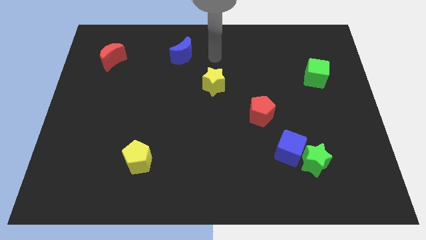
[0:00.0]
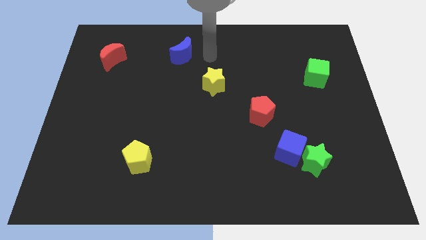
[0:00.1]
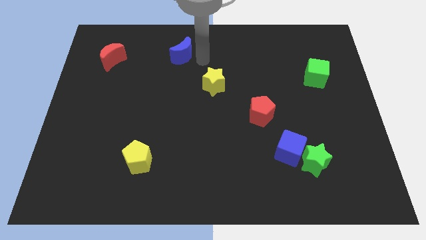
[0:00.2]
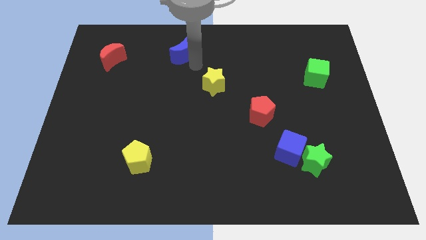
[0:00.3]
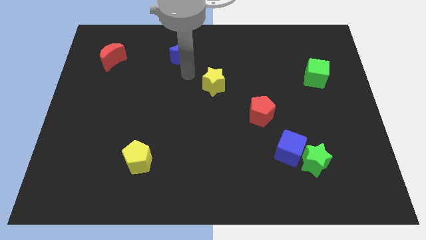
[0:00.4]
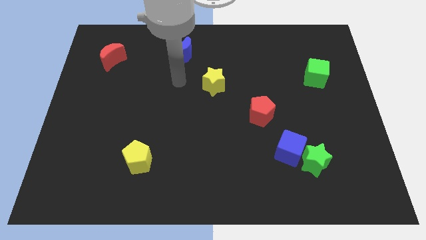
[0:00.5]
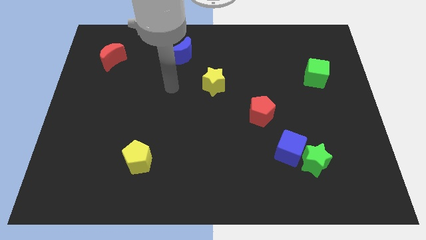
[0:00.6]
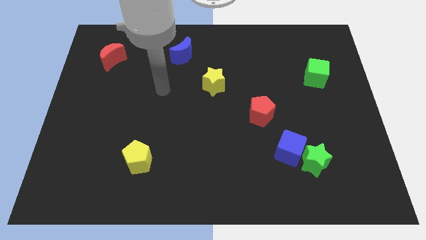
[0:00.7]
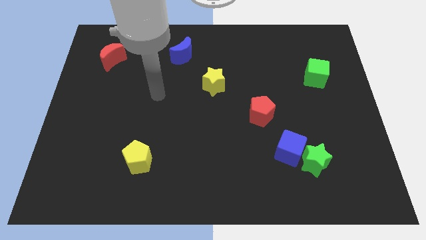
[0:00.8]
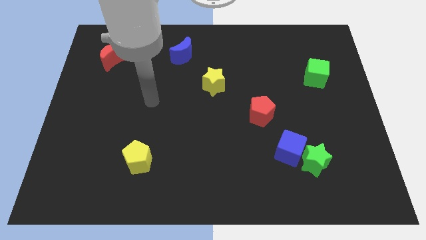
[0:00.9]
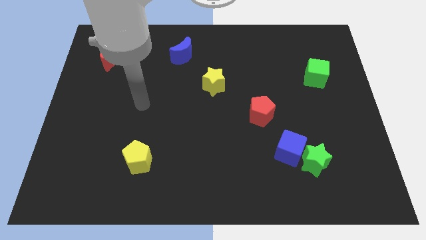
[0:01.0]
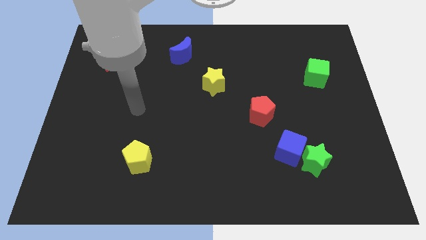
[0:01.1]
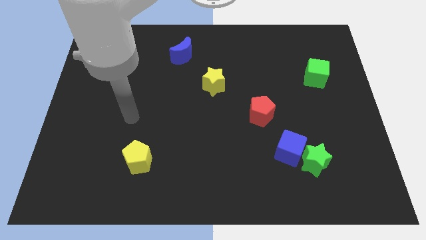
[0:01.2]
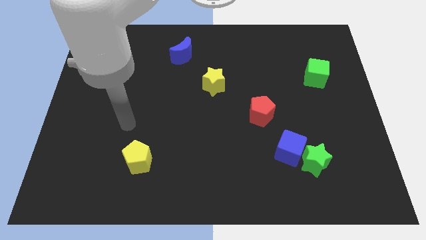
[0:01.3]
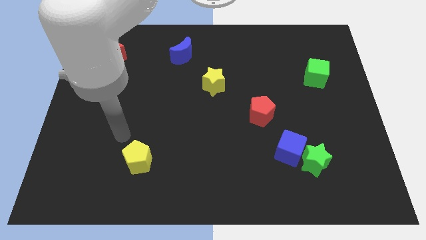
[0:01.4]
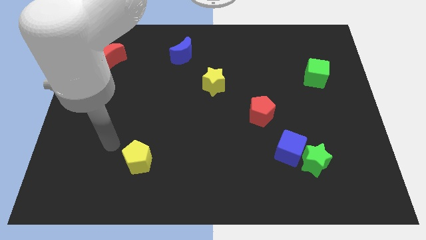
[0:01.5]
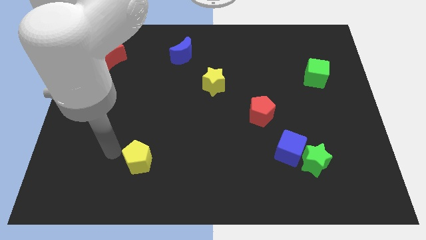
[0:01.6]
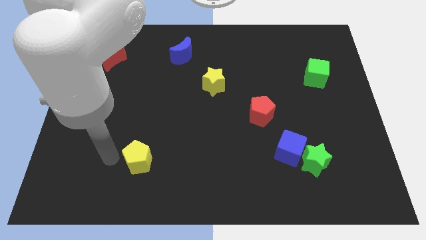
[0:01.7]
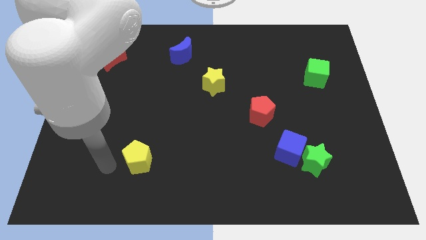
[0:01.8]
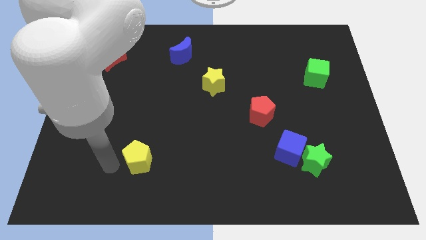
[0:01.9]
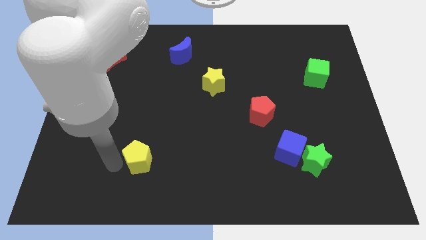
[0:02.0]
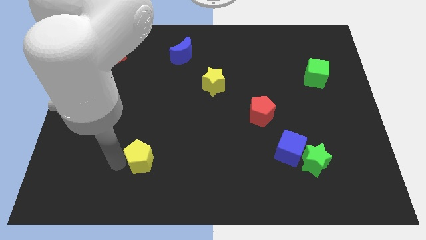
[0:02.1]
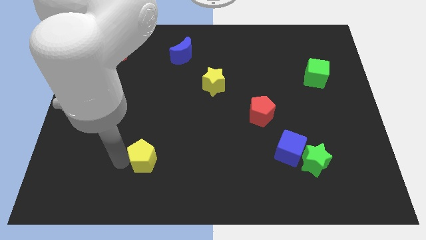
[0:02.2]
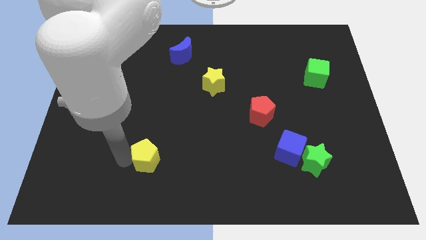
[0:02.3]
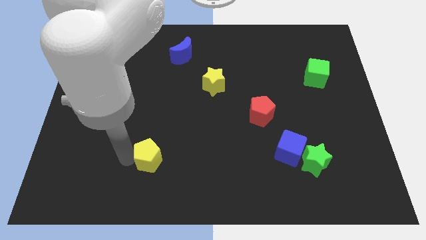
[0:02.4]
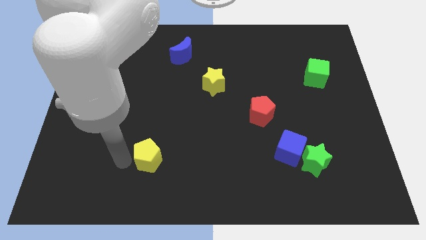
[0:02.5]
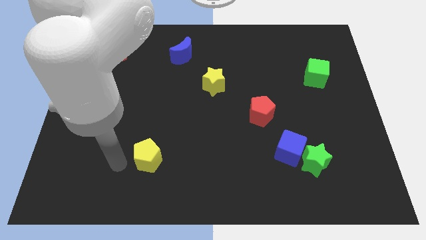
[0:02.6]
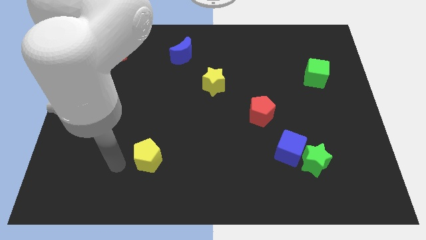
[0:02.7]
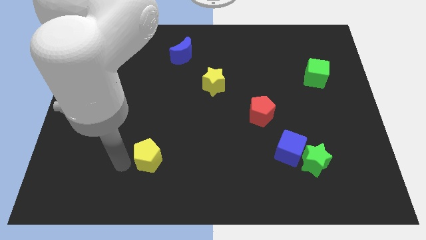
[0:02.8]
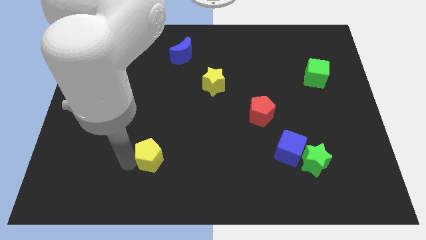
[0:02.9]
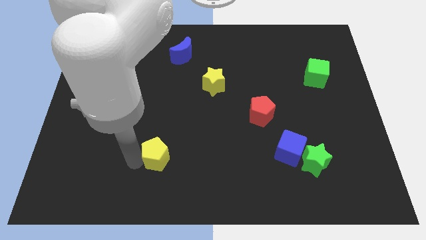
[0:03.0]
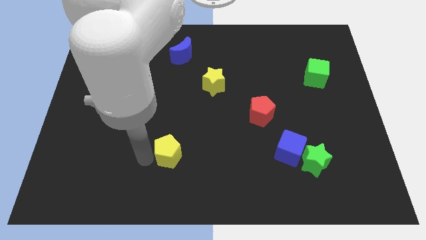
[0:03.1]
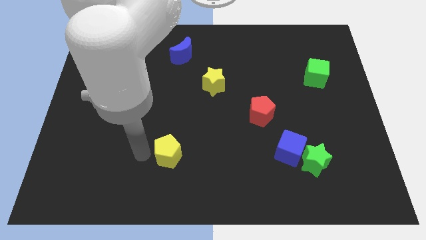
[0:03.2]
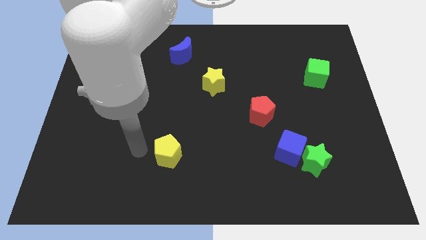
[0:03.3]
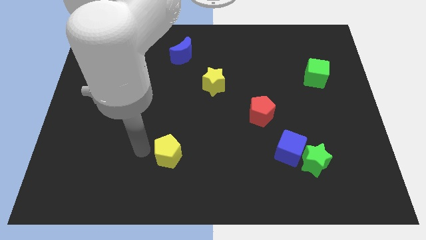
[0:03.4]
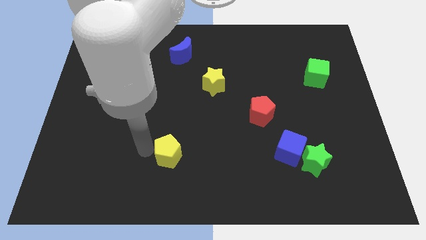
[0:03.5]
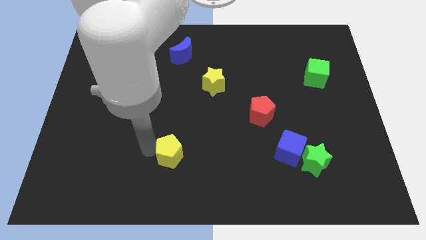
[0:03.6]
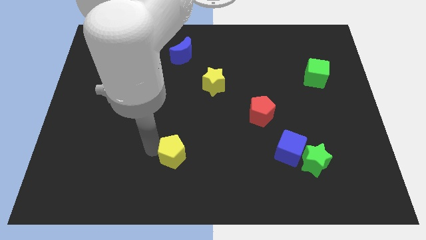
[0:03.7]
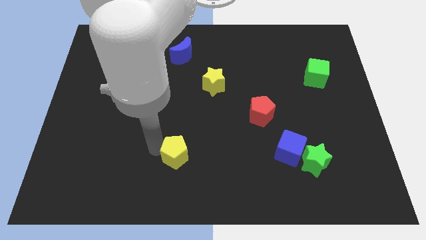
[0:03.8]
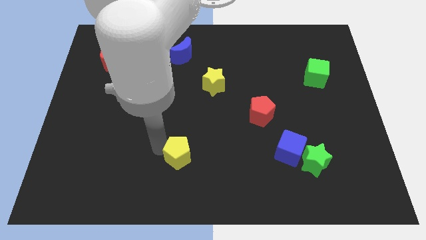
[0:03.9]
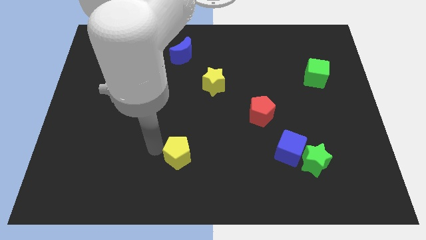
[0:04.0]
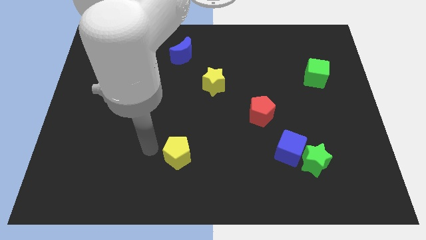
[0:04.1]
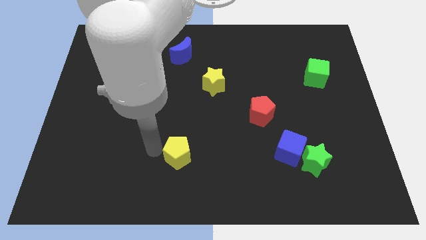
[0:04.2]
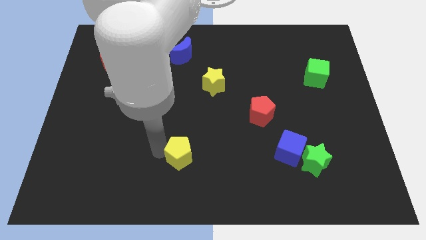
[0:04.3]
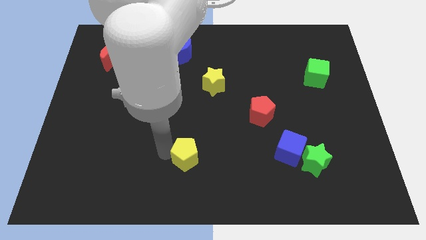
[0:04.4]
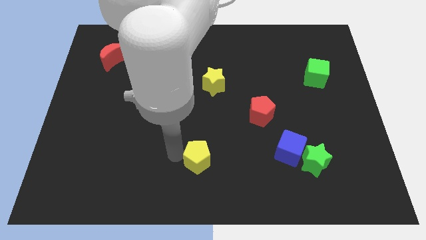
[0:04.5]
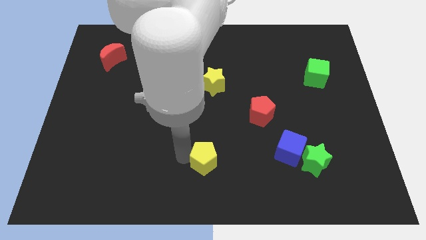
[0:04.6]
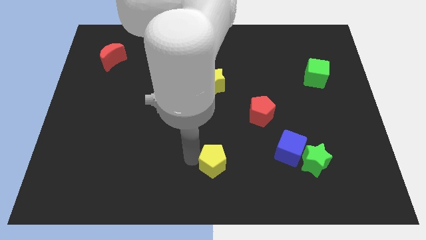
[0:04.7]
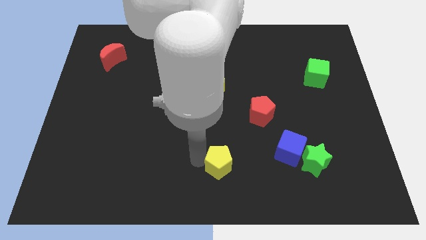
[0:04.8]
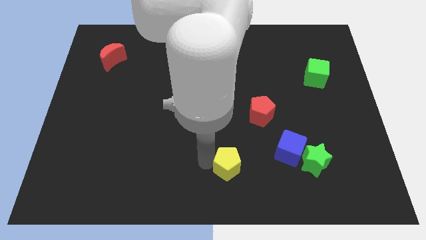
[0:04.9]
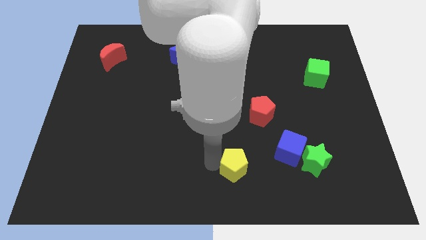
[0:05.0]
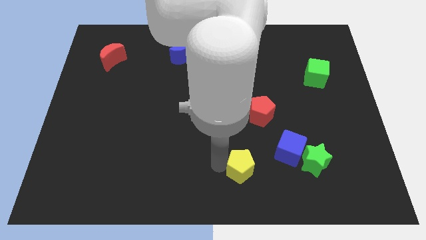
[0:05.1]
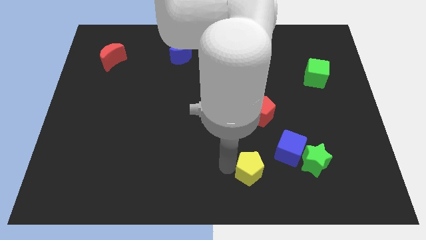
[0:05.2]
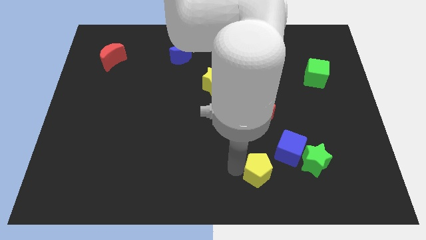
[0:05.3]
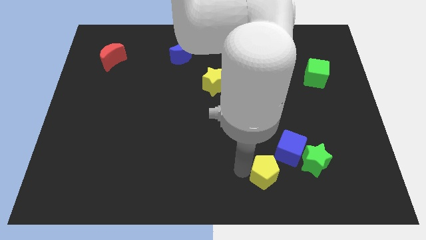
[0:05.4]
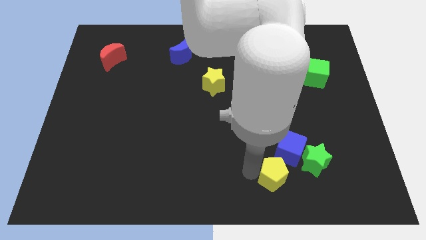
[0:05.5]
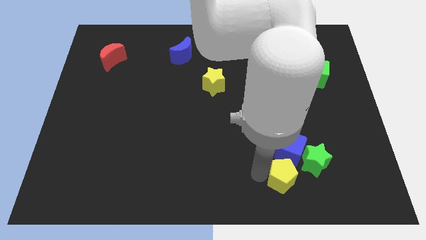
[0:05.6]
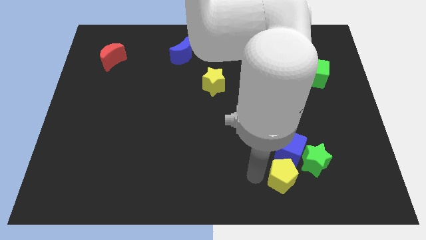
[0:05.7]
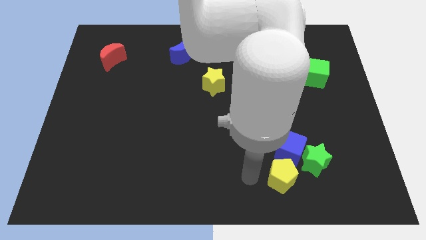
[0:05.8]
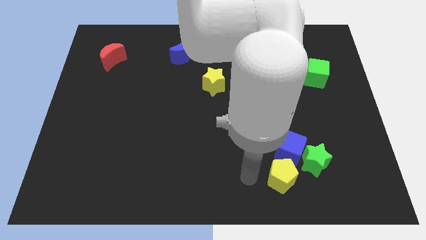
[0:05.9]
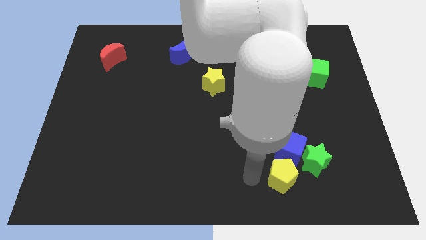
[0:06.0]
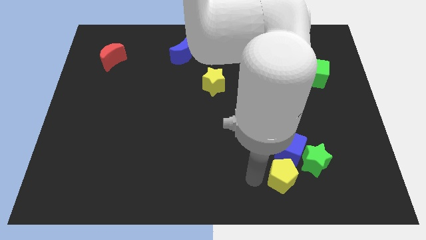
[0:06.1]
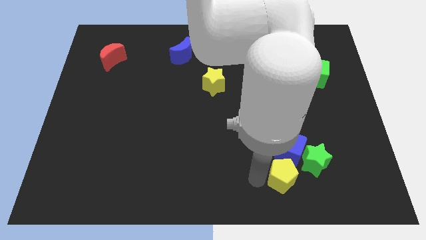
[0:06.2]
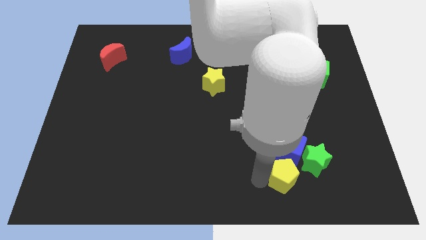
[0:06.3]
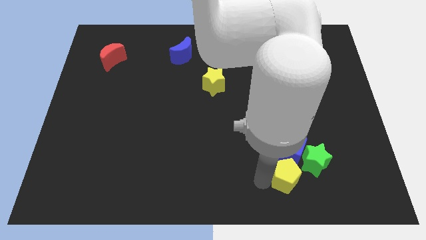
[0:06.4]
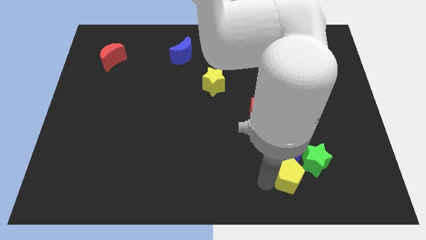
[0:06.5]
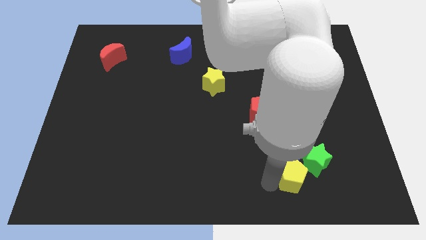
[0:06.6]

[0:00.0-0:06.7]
push the yellow pentagon diagonally down and to the right of the blue cube
